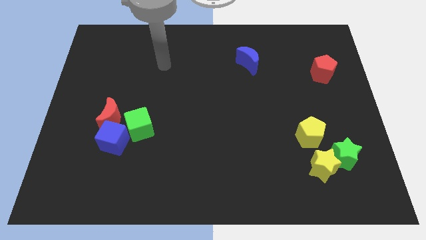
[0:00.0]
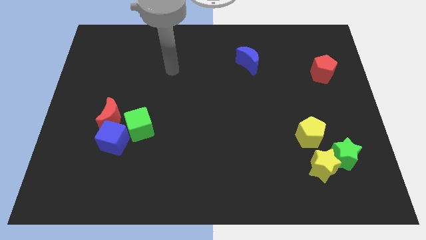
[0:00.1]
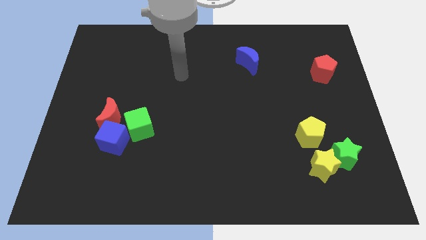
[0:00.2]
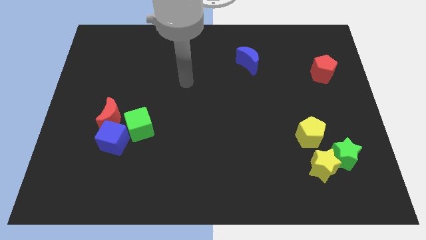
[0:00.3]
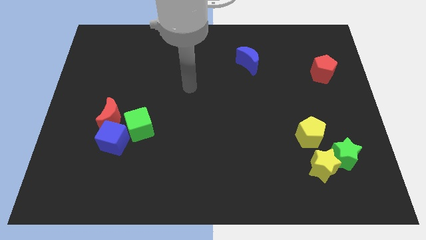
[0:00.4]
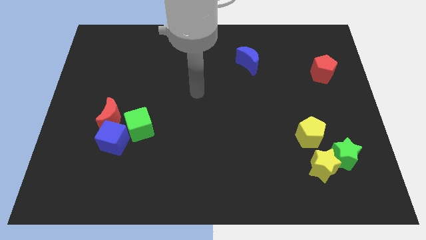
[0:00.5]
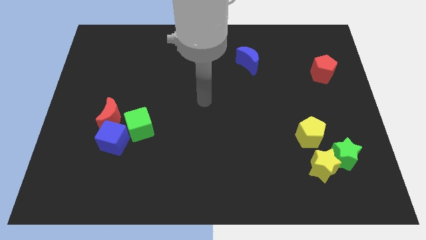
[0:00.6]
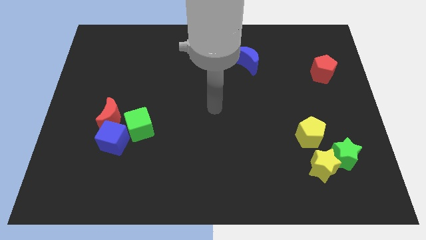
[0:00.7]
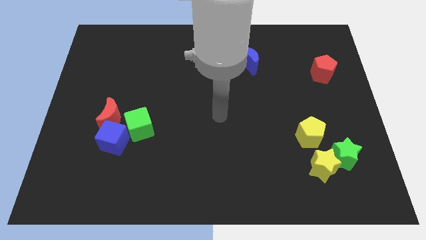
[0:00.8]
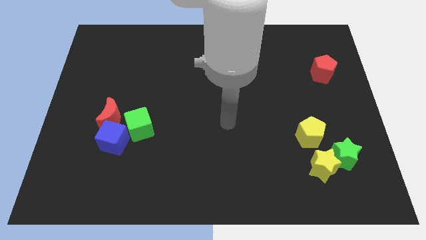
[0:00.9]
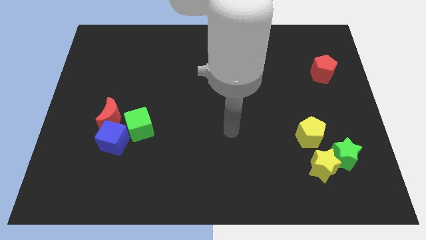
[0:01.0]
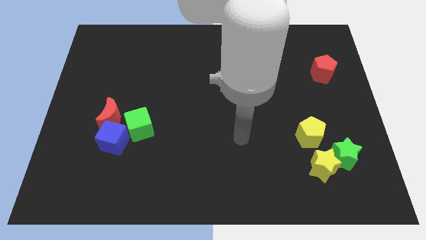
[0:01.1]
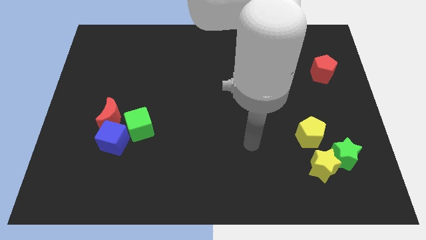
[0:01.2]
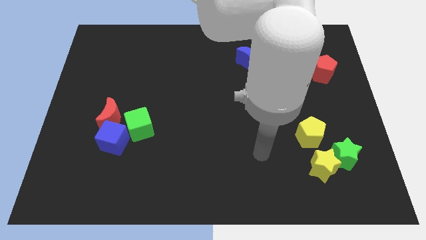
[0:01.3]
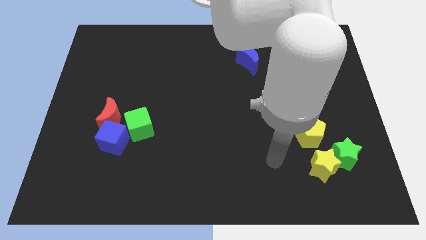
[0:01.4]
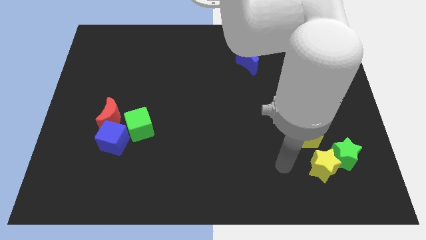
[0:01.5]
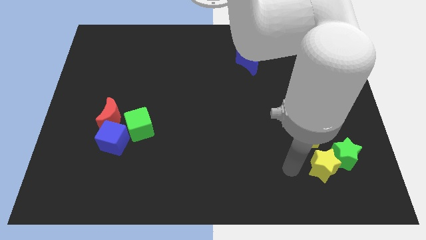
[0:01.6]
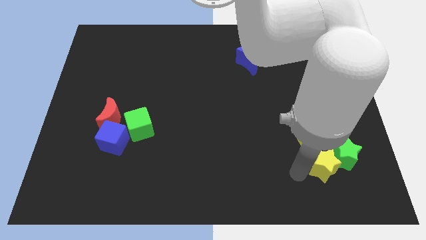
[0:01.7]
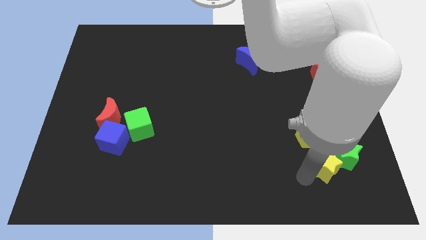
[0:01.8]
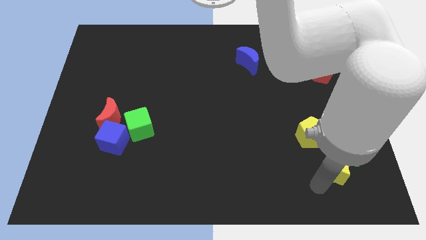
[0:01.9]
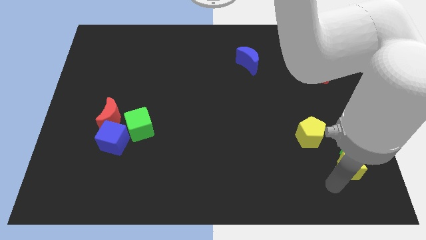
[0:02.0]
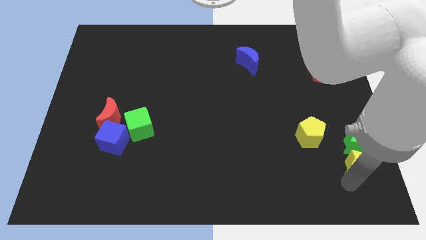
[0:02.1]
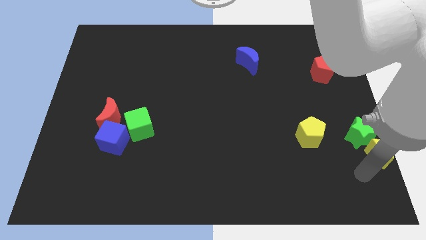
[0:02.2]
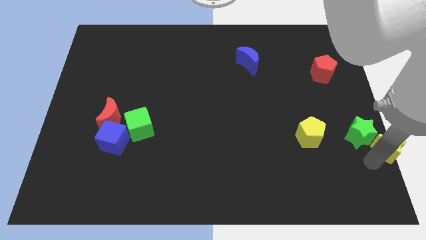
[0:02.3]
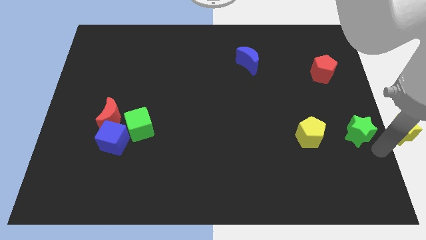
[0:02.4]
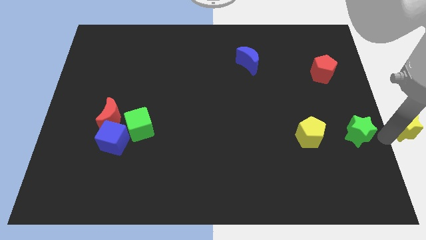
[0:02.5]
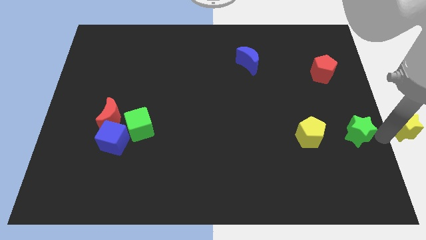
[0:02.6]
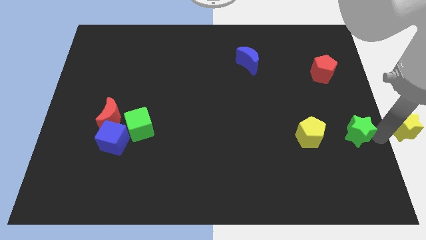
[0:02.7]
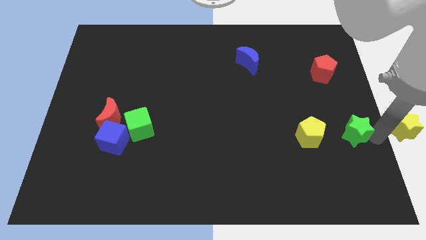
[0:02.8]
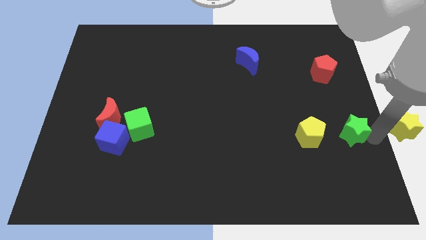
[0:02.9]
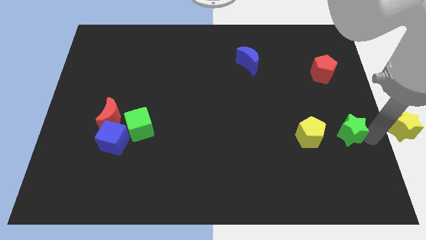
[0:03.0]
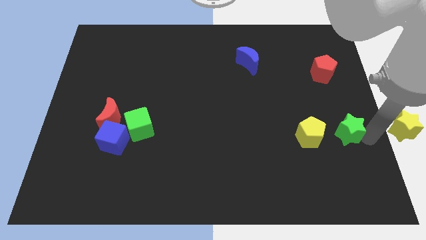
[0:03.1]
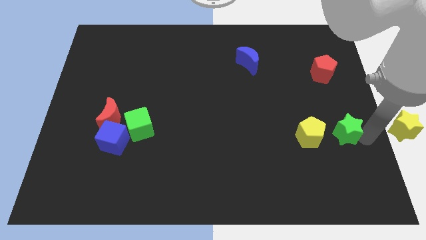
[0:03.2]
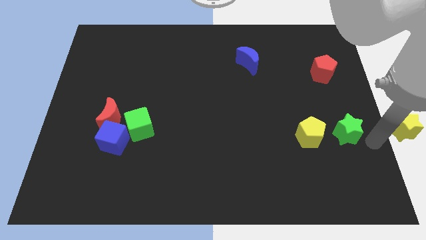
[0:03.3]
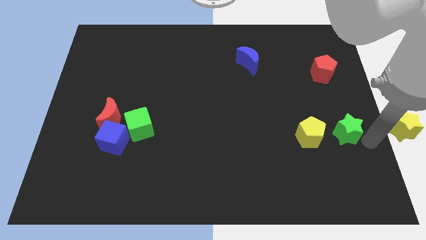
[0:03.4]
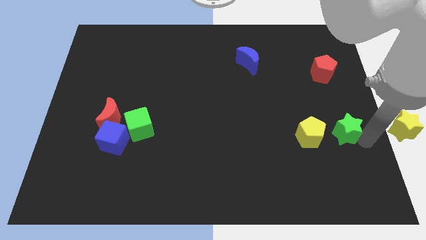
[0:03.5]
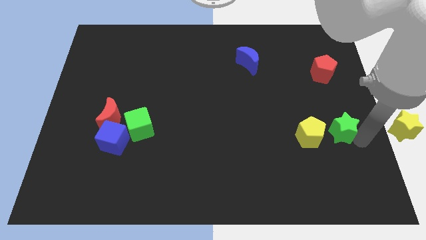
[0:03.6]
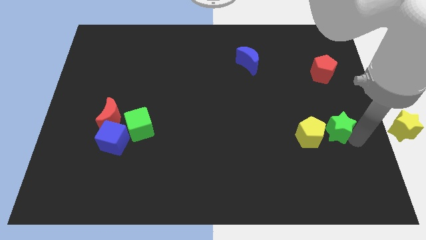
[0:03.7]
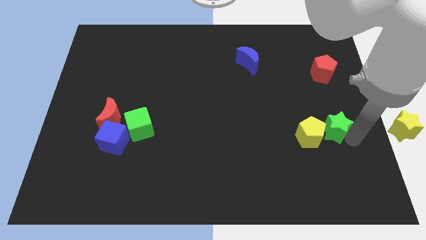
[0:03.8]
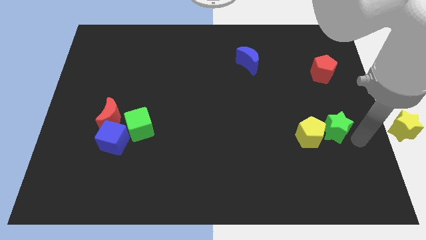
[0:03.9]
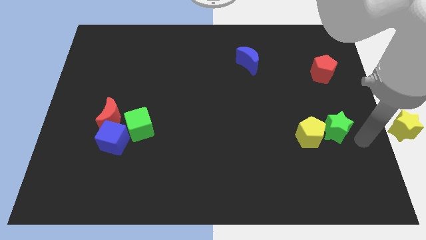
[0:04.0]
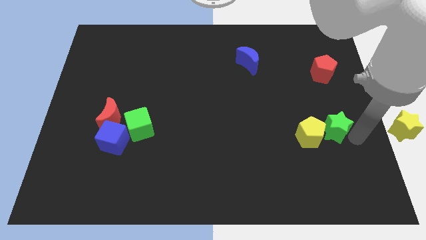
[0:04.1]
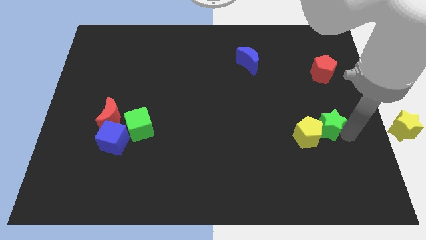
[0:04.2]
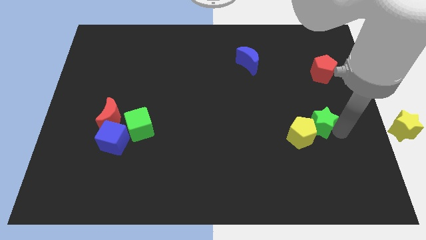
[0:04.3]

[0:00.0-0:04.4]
push the green star slightly diagonally upwards and to the left

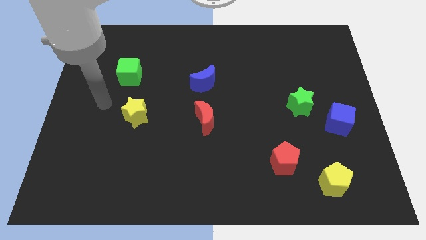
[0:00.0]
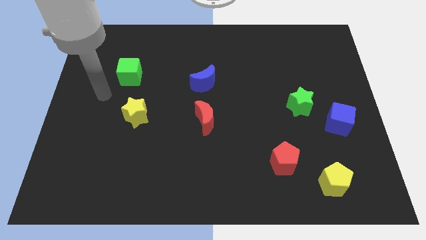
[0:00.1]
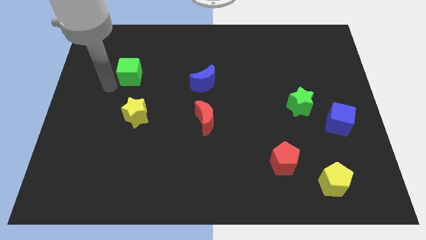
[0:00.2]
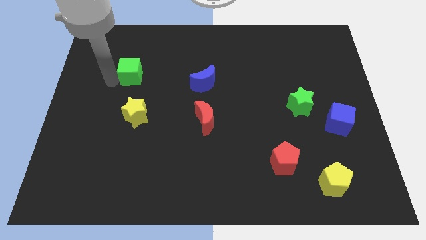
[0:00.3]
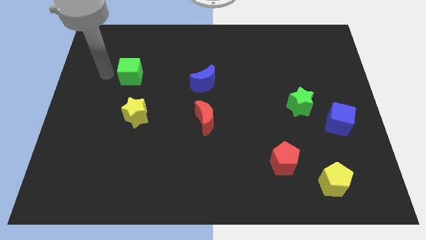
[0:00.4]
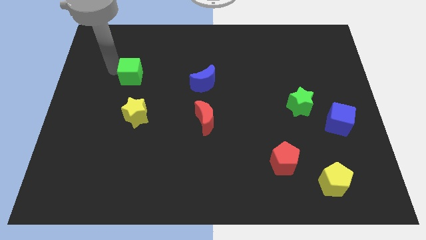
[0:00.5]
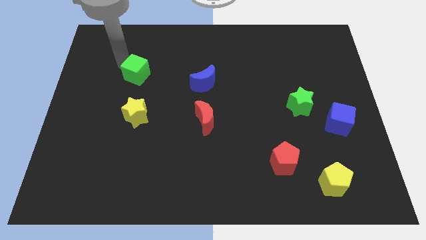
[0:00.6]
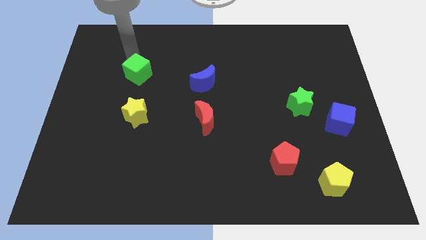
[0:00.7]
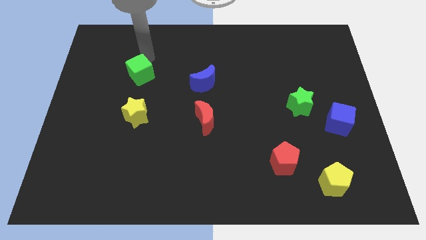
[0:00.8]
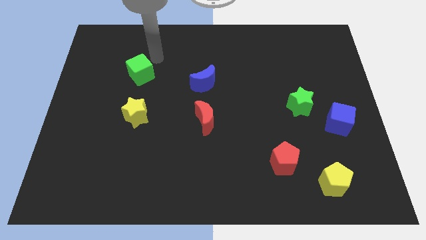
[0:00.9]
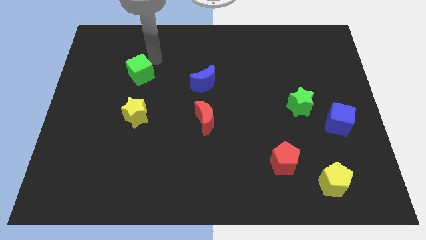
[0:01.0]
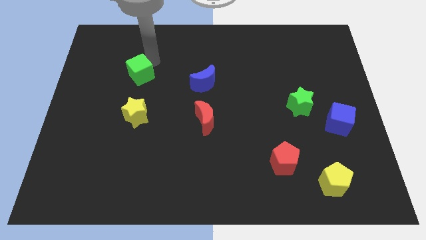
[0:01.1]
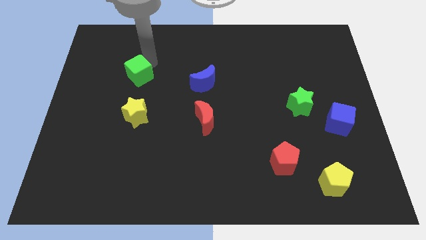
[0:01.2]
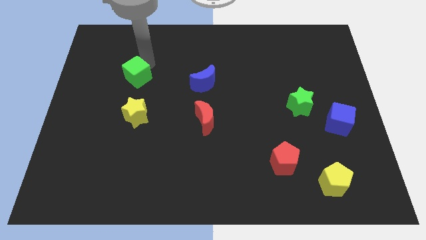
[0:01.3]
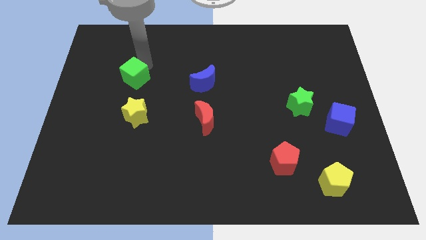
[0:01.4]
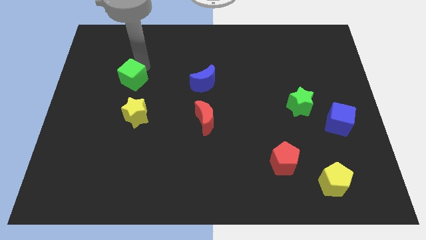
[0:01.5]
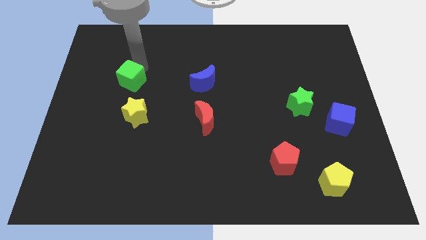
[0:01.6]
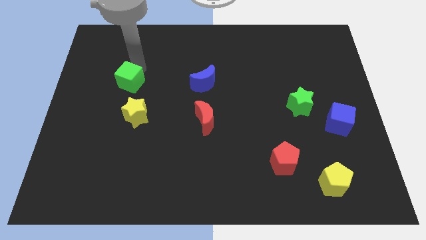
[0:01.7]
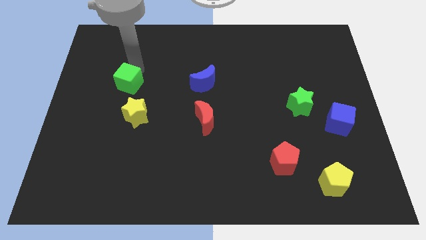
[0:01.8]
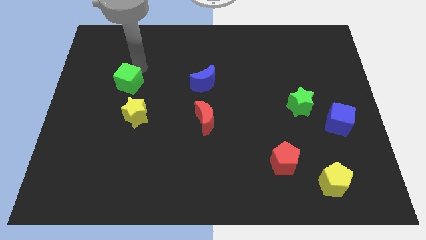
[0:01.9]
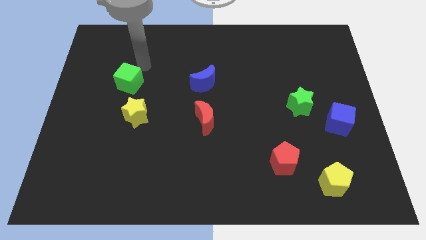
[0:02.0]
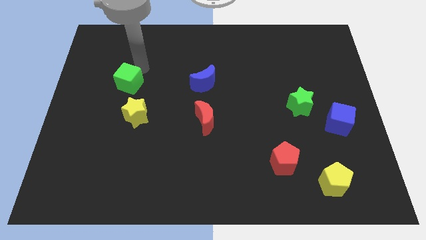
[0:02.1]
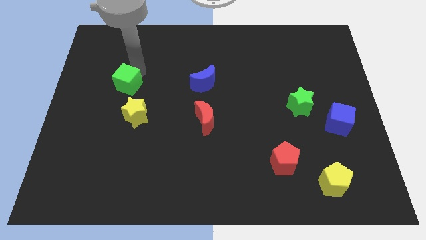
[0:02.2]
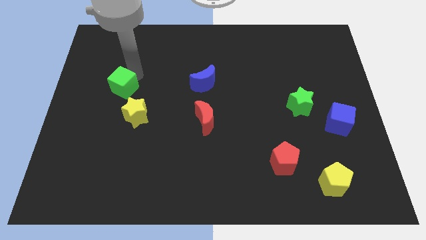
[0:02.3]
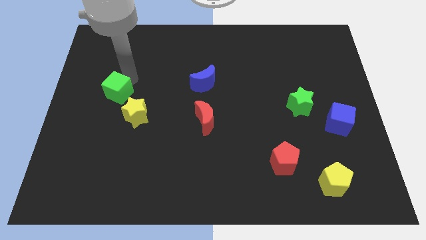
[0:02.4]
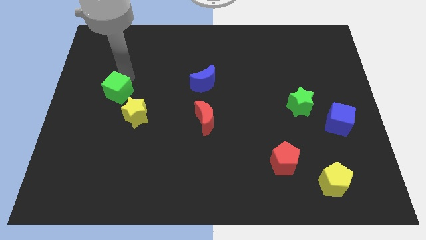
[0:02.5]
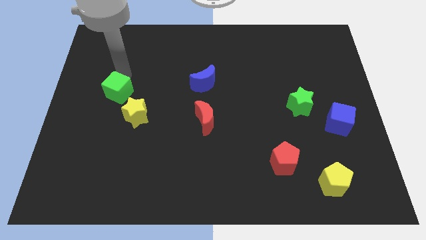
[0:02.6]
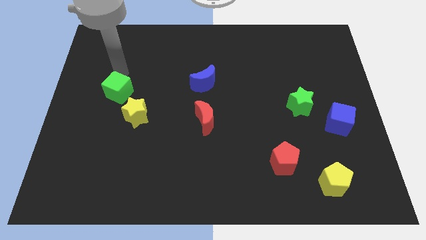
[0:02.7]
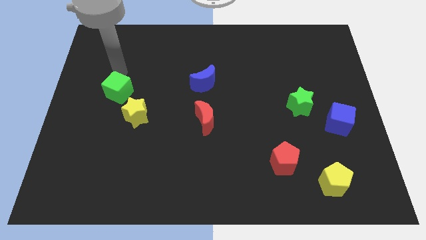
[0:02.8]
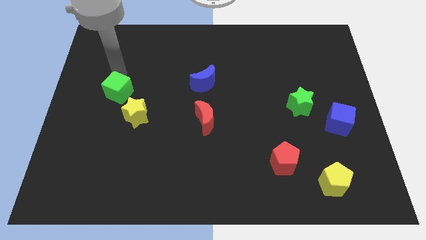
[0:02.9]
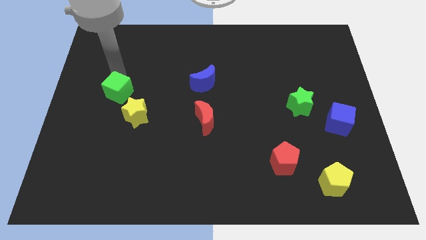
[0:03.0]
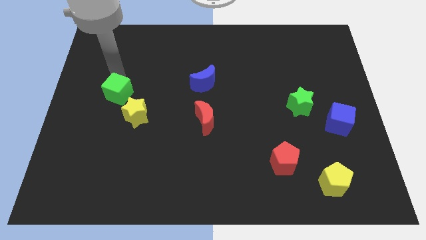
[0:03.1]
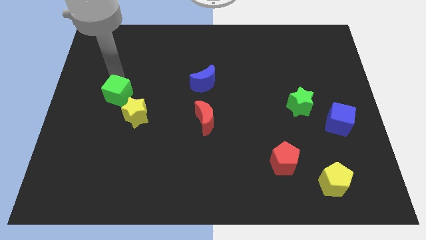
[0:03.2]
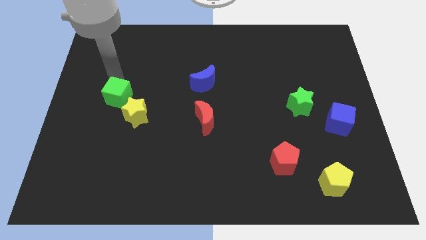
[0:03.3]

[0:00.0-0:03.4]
slightly push the green cube downwards

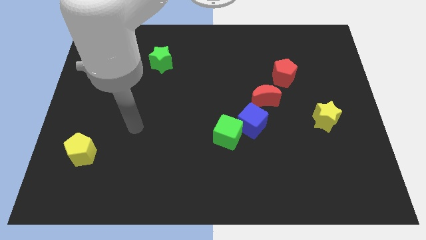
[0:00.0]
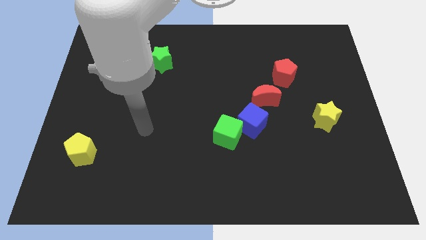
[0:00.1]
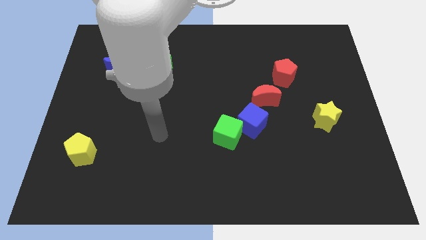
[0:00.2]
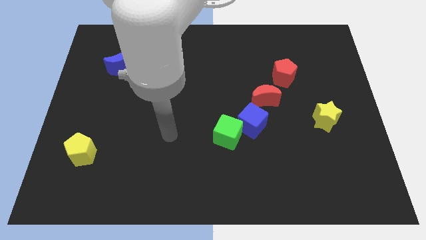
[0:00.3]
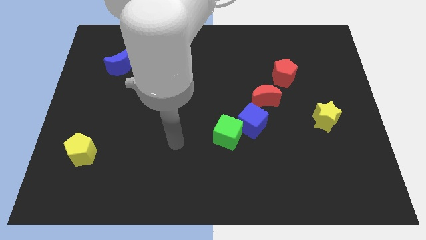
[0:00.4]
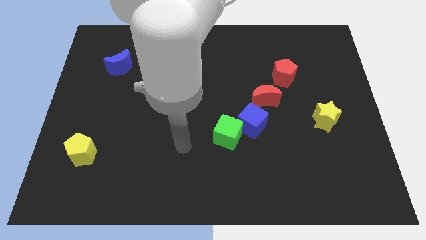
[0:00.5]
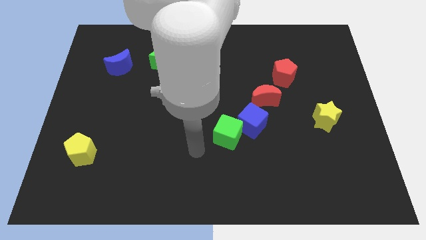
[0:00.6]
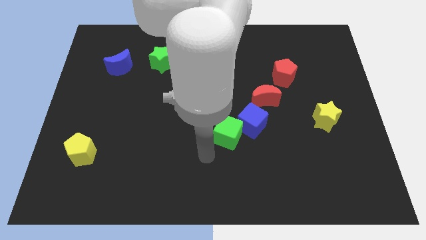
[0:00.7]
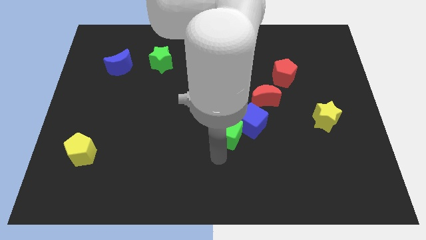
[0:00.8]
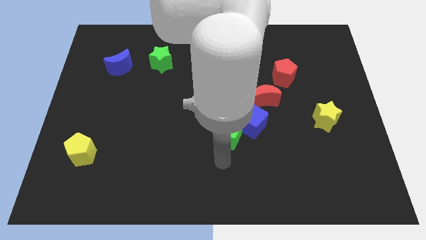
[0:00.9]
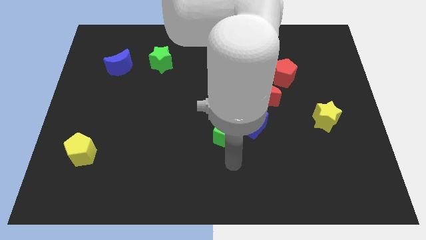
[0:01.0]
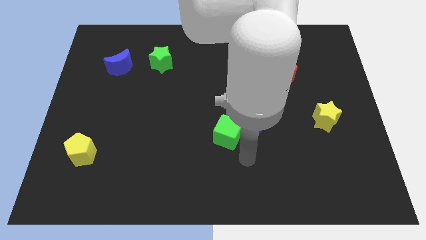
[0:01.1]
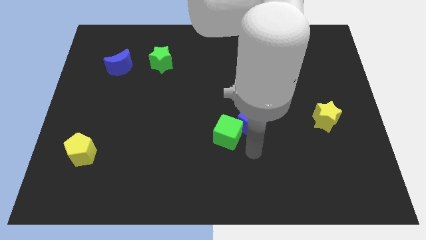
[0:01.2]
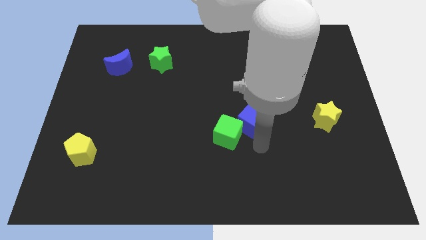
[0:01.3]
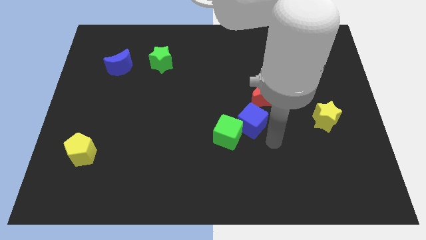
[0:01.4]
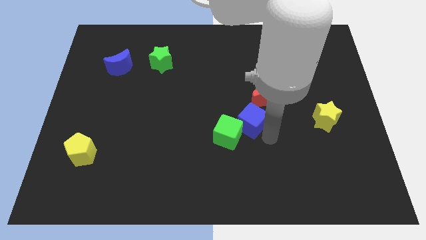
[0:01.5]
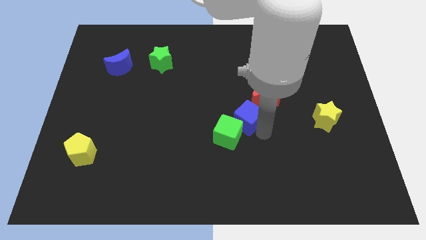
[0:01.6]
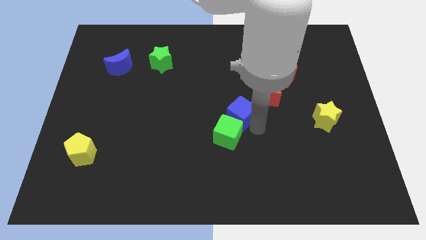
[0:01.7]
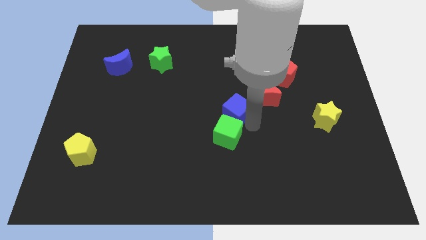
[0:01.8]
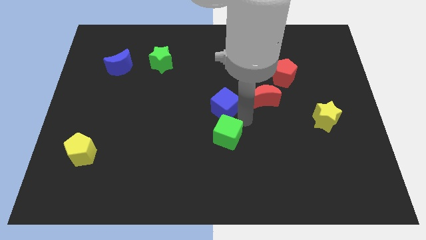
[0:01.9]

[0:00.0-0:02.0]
slightly move the blue cube upwards and to the left
